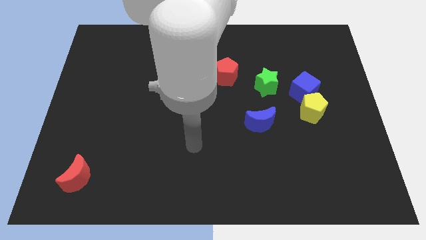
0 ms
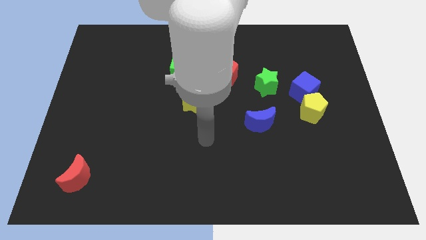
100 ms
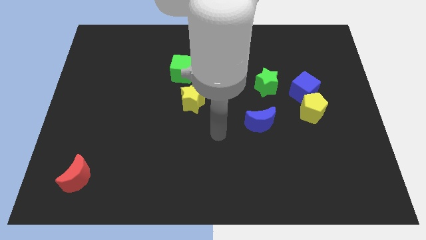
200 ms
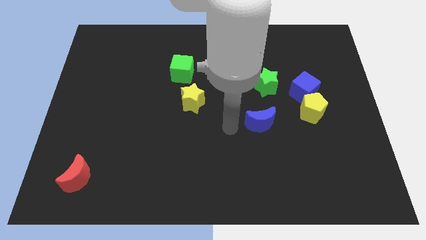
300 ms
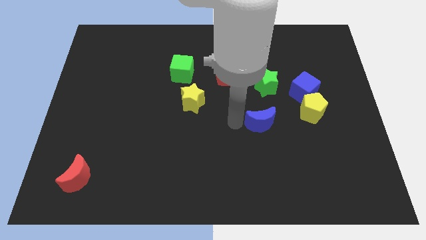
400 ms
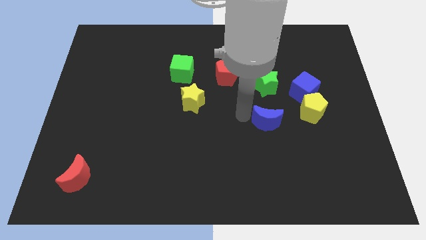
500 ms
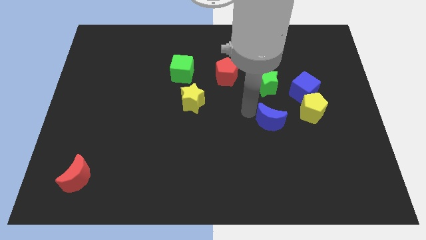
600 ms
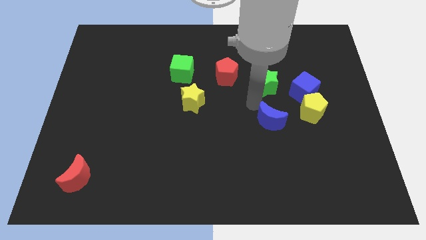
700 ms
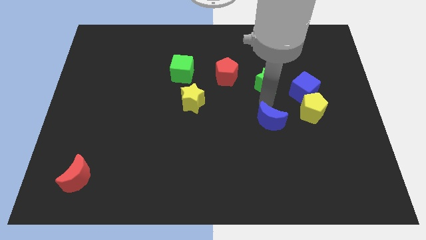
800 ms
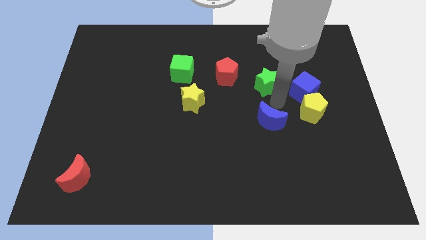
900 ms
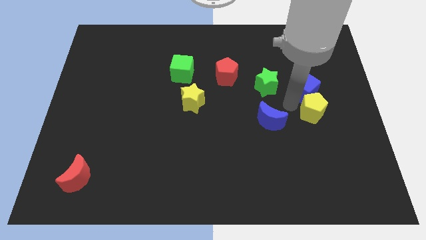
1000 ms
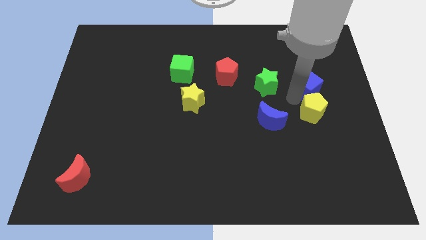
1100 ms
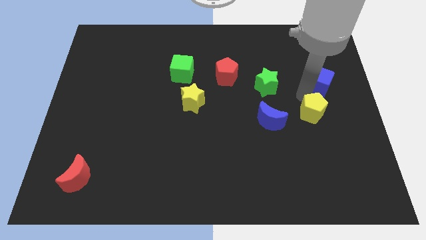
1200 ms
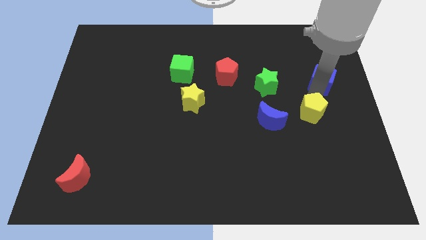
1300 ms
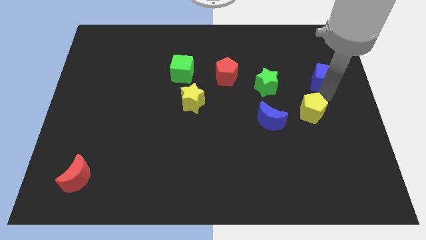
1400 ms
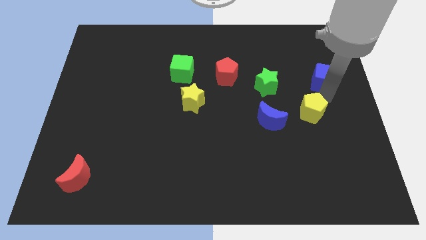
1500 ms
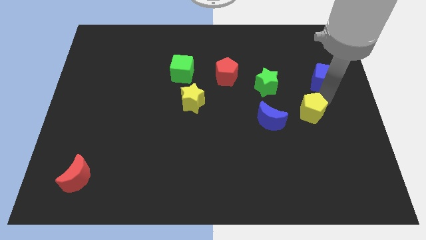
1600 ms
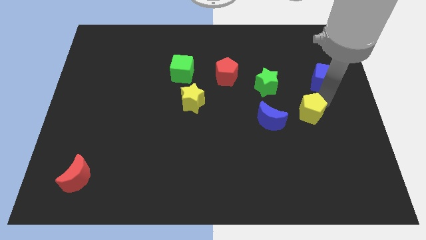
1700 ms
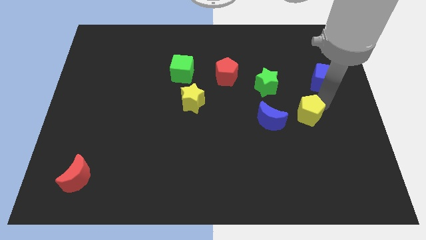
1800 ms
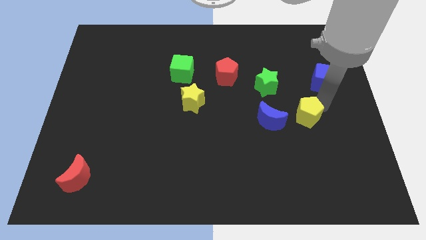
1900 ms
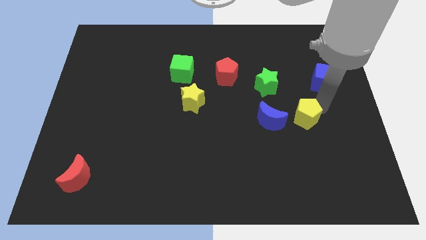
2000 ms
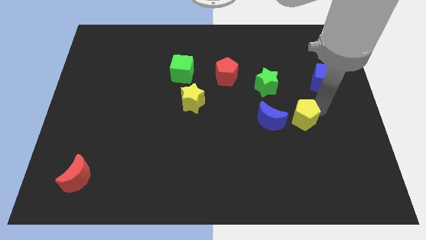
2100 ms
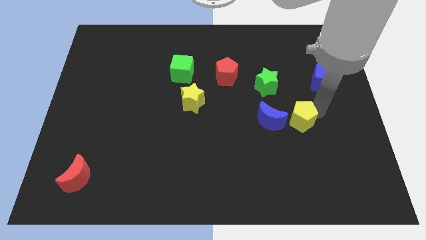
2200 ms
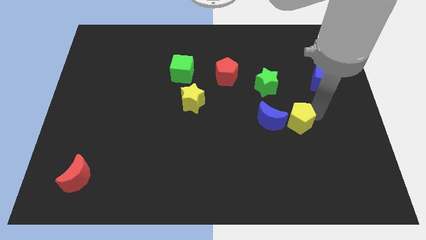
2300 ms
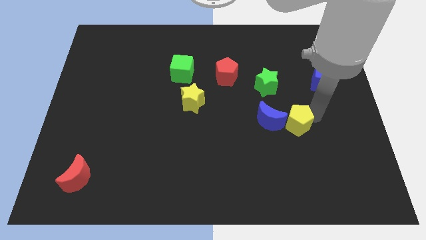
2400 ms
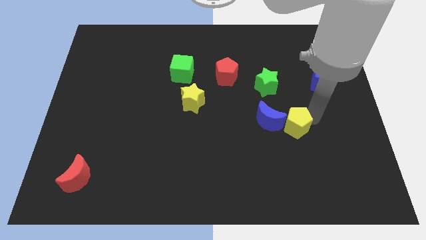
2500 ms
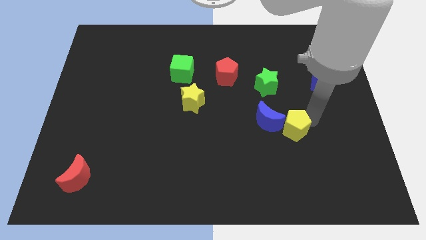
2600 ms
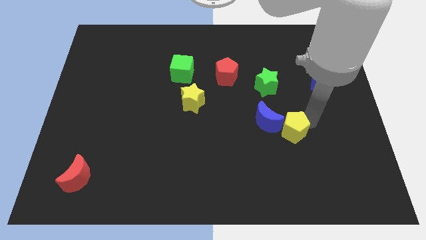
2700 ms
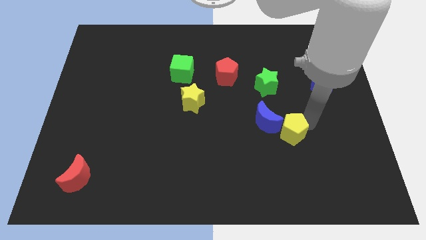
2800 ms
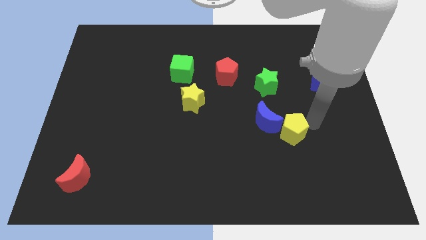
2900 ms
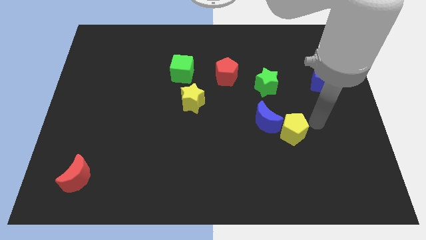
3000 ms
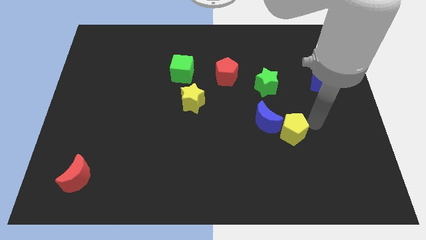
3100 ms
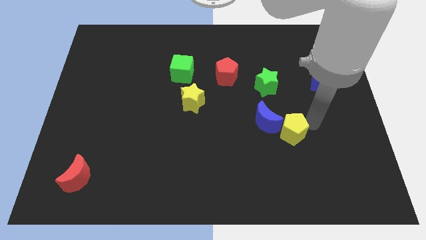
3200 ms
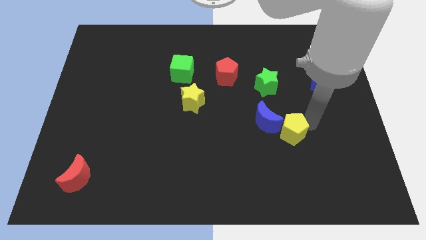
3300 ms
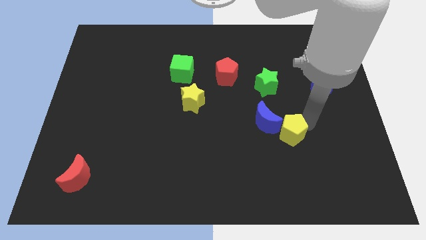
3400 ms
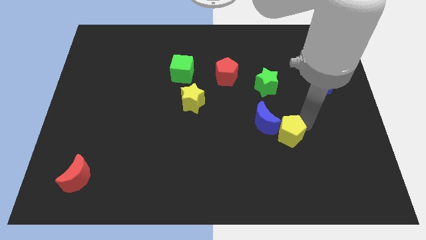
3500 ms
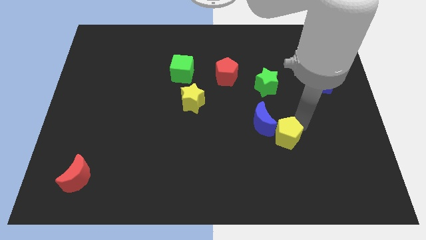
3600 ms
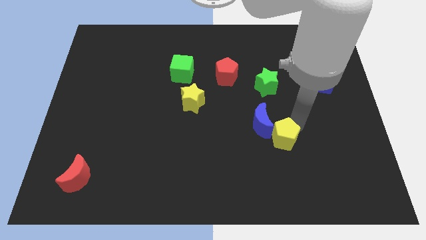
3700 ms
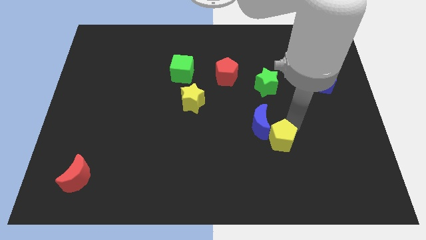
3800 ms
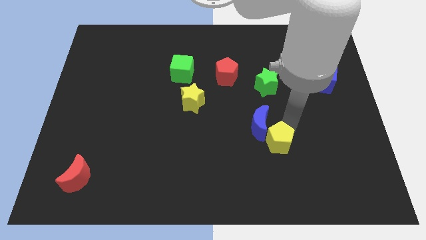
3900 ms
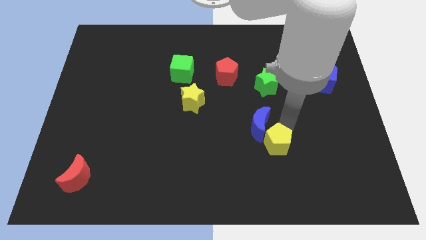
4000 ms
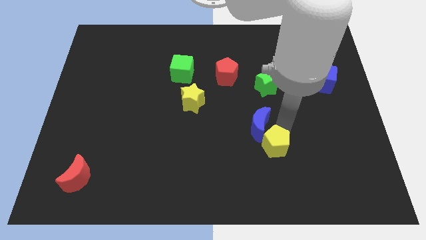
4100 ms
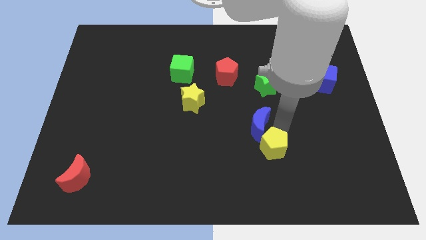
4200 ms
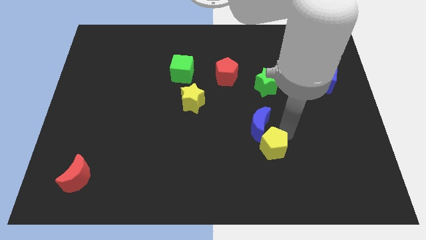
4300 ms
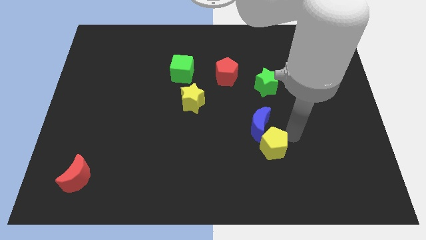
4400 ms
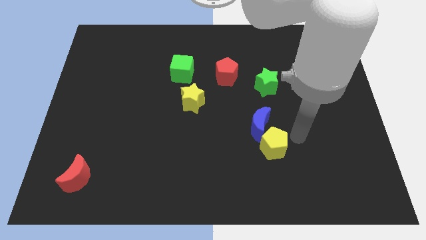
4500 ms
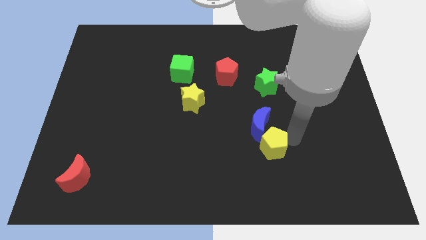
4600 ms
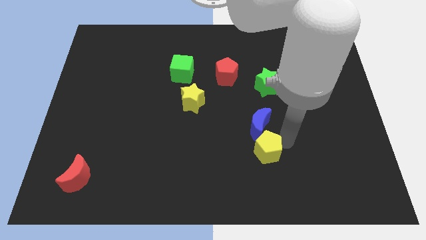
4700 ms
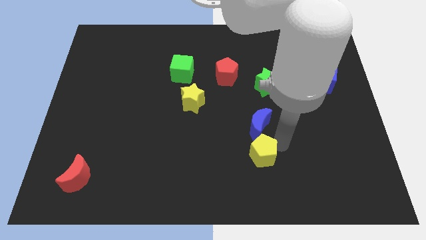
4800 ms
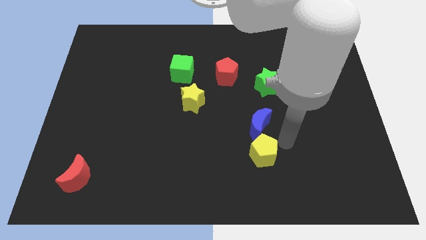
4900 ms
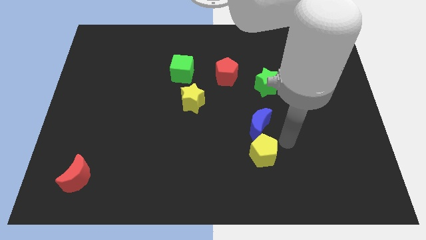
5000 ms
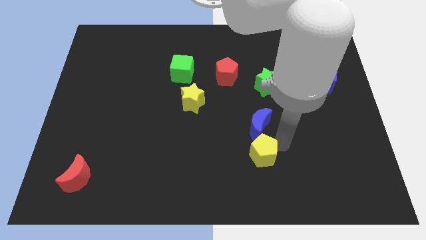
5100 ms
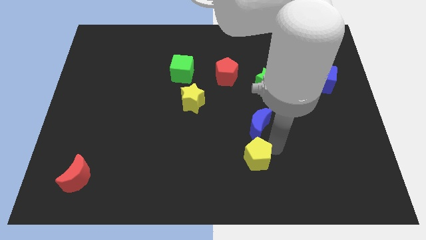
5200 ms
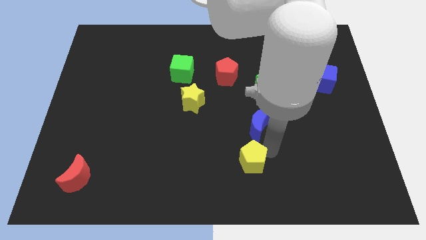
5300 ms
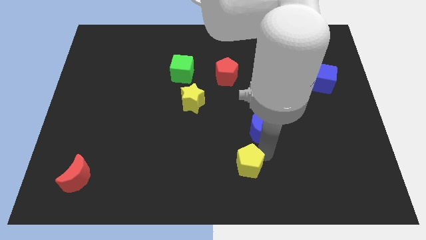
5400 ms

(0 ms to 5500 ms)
put the yellow pentagon to the bottom side

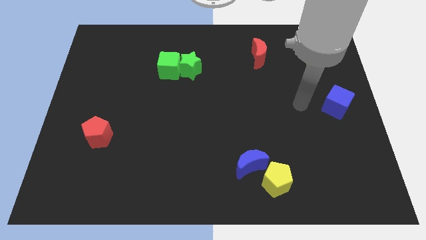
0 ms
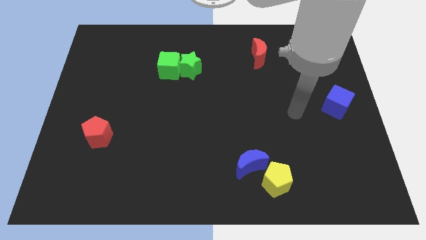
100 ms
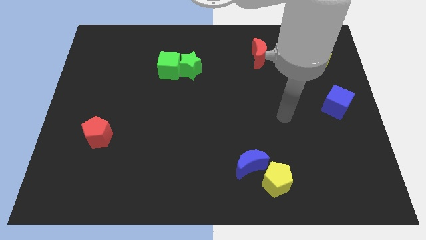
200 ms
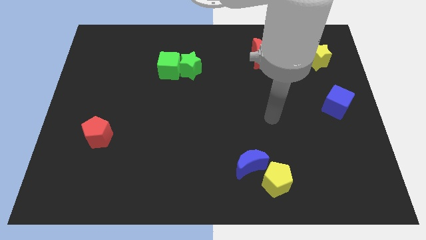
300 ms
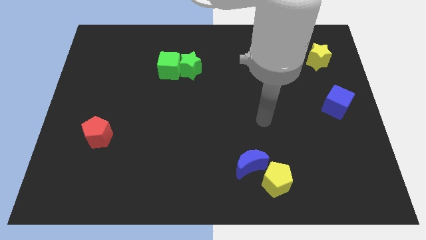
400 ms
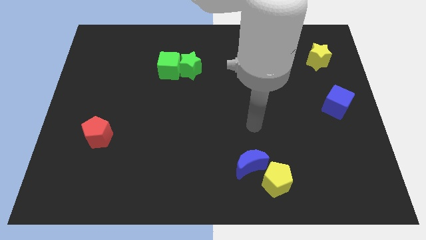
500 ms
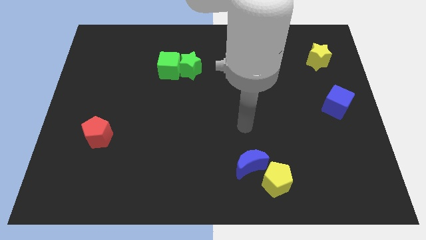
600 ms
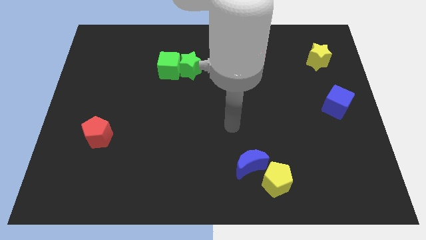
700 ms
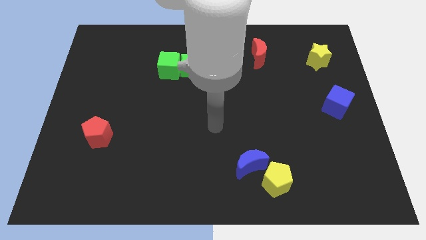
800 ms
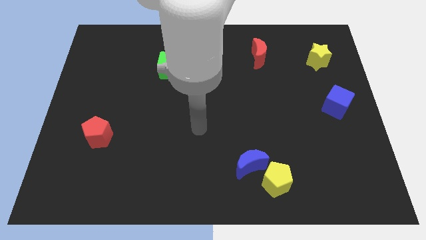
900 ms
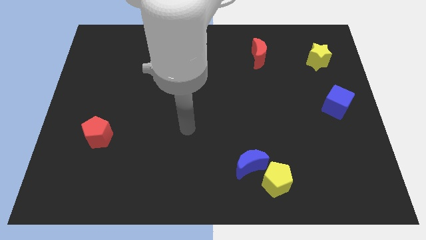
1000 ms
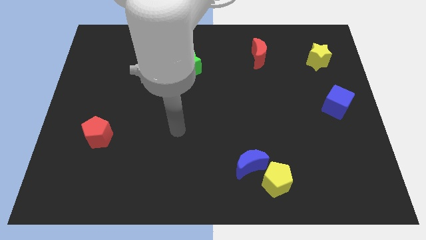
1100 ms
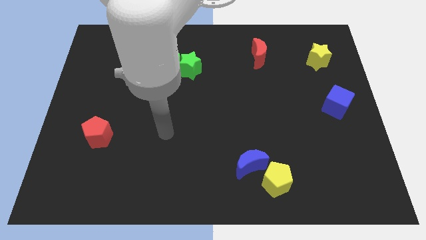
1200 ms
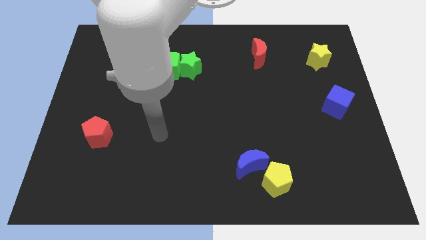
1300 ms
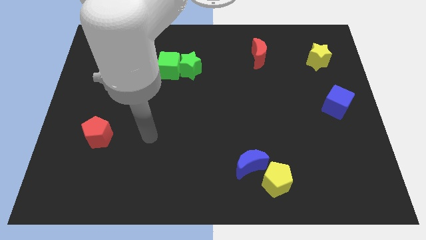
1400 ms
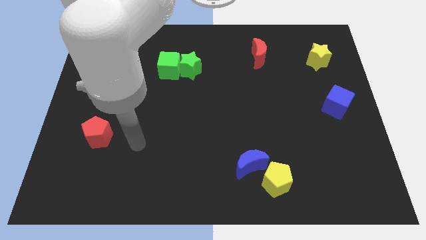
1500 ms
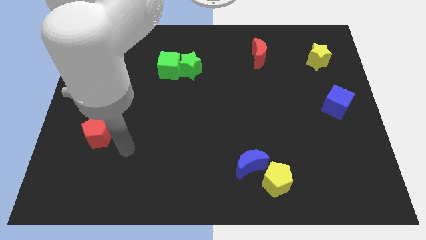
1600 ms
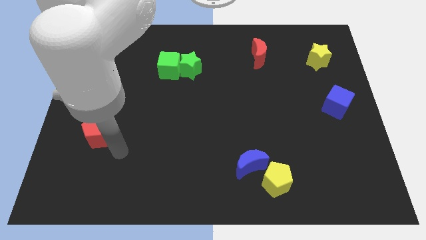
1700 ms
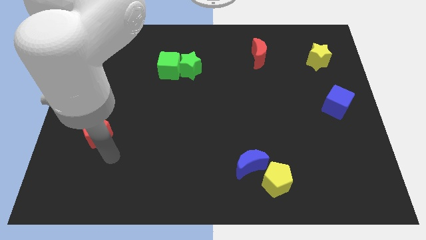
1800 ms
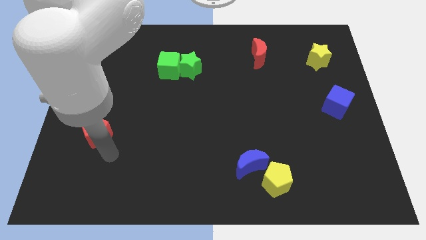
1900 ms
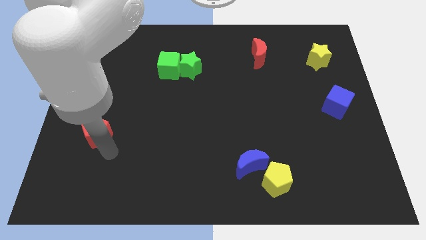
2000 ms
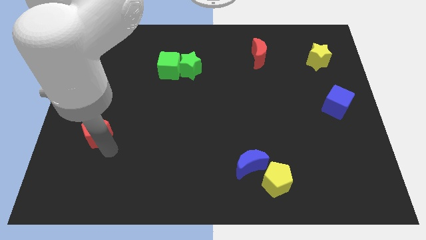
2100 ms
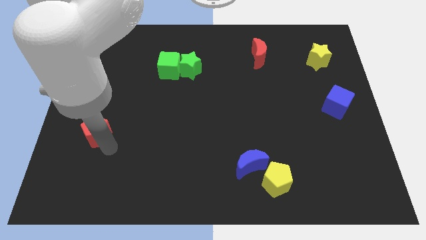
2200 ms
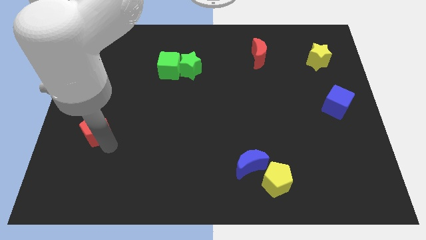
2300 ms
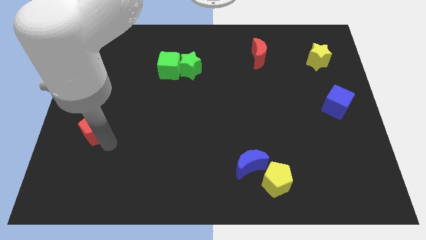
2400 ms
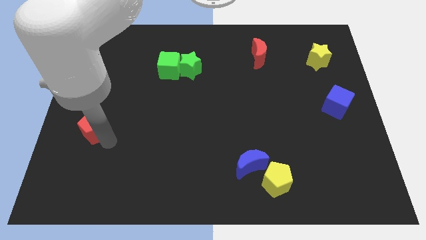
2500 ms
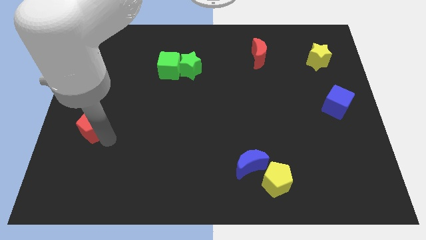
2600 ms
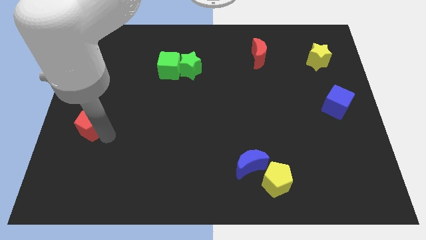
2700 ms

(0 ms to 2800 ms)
push the red pentagon to the left side of the board
